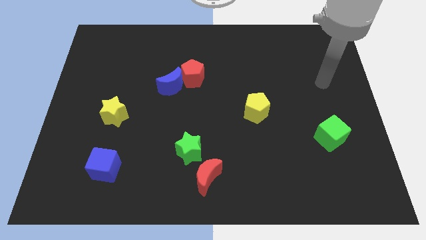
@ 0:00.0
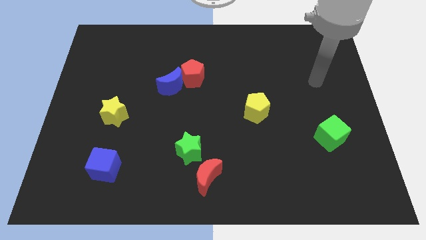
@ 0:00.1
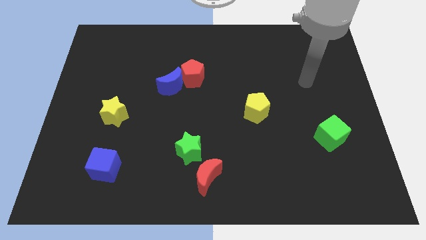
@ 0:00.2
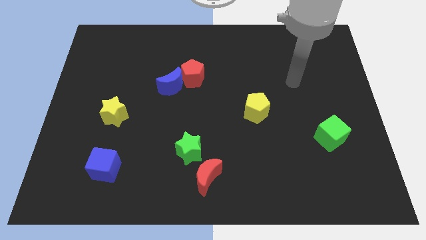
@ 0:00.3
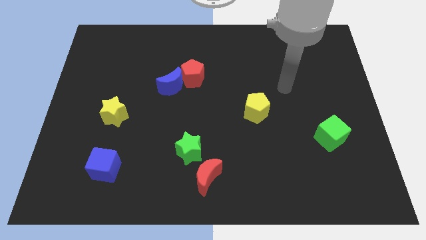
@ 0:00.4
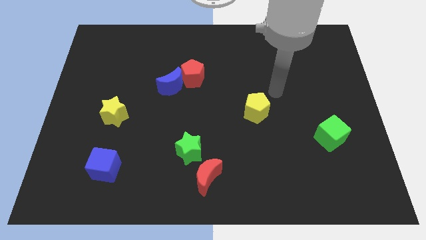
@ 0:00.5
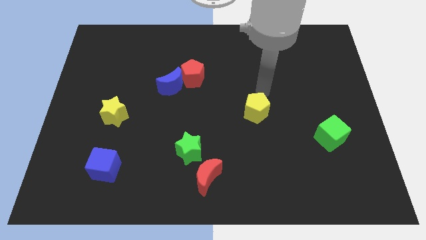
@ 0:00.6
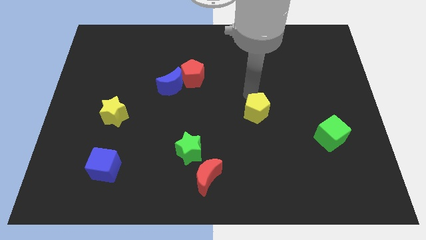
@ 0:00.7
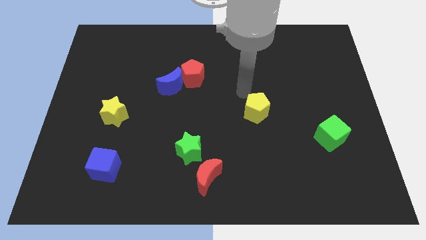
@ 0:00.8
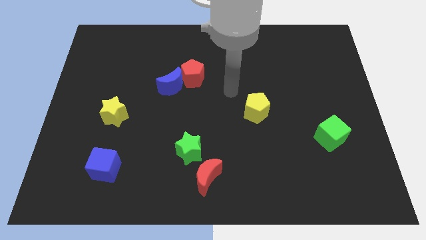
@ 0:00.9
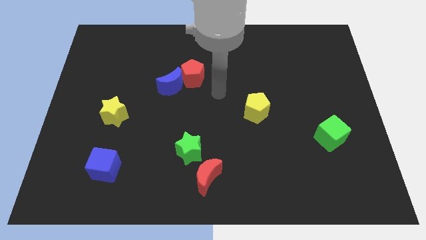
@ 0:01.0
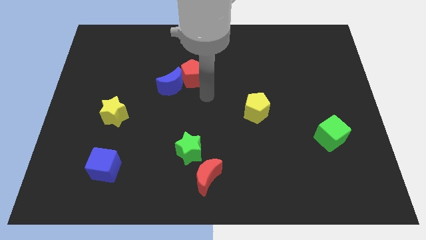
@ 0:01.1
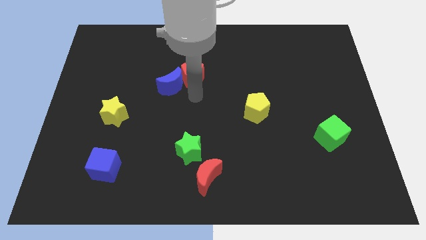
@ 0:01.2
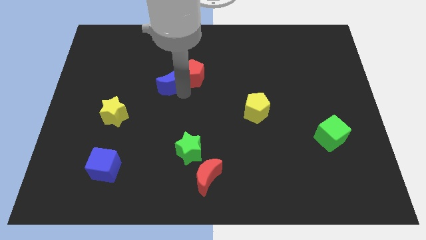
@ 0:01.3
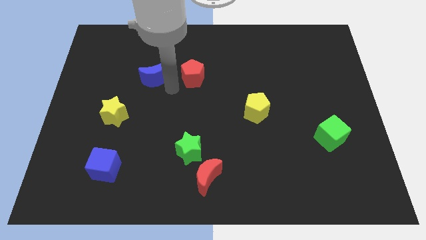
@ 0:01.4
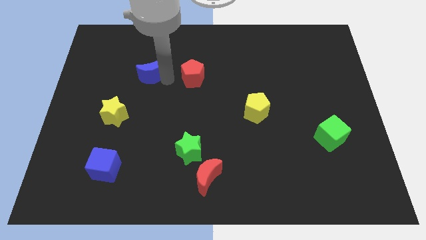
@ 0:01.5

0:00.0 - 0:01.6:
move the red pentagon away from the blue moon

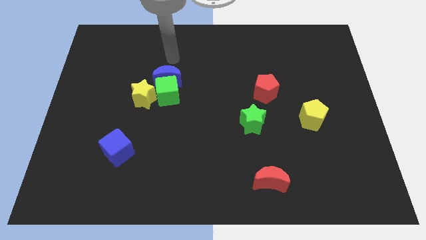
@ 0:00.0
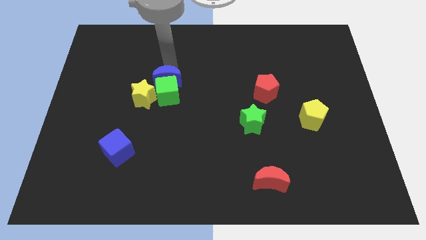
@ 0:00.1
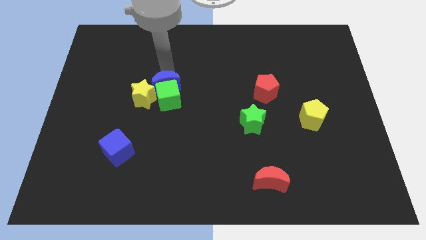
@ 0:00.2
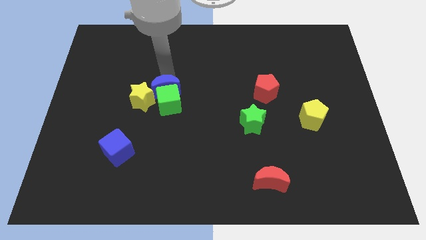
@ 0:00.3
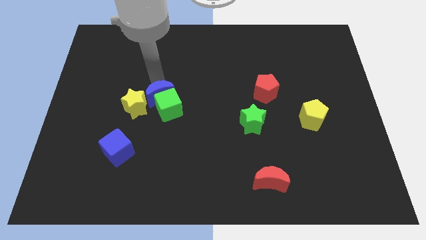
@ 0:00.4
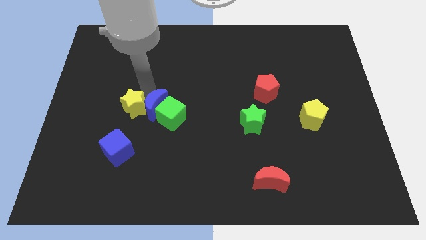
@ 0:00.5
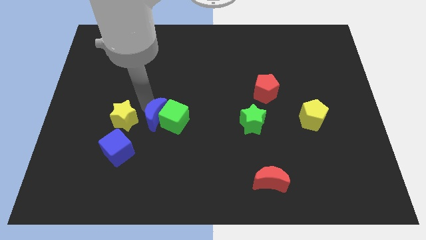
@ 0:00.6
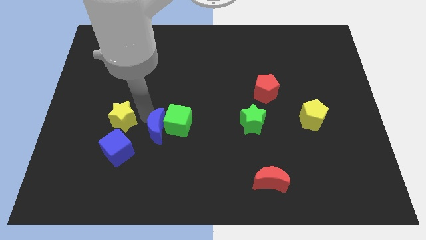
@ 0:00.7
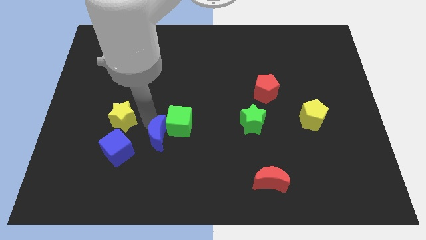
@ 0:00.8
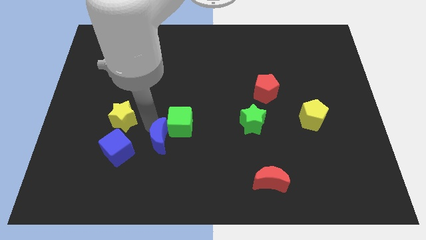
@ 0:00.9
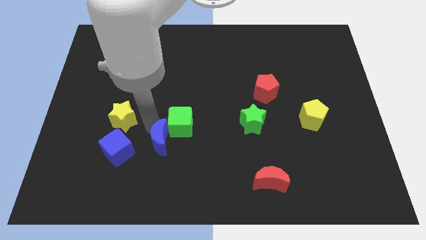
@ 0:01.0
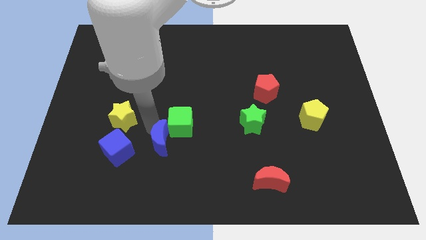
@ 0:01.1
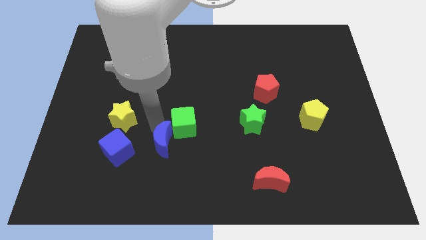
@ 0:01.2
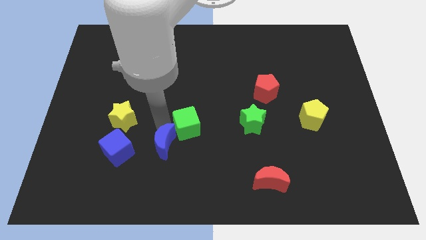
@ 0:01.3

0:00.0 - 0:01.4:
move the green cube away from the blue moon and yellow star

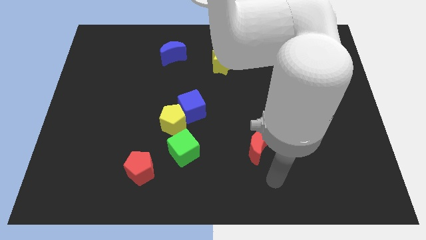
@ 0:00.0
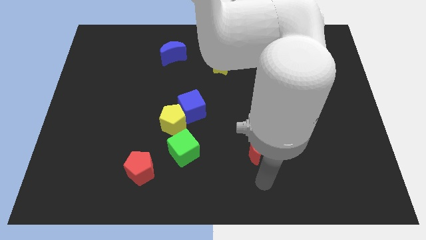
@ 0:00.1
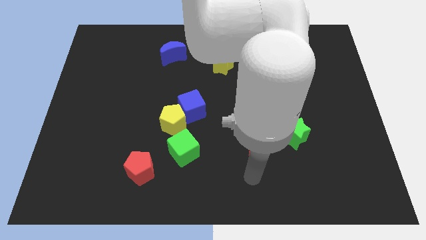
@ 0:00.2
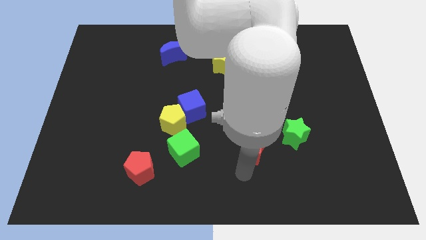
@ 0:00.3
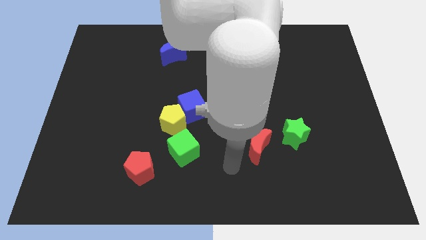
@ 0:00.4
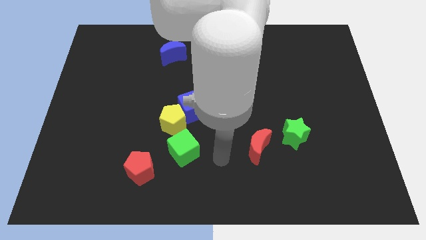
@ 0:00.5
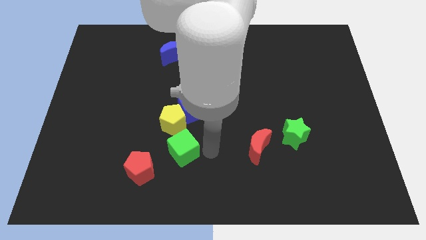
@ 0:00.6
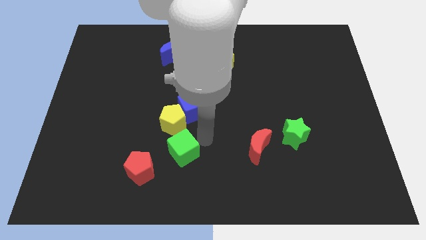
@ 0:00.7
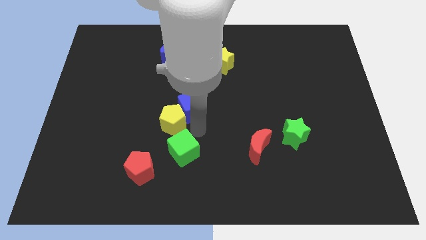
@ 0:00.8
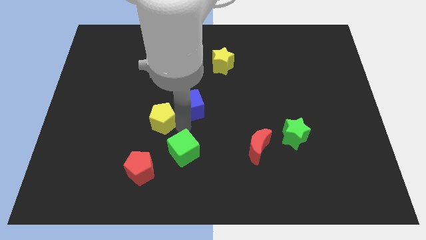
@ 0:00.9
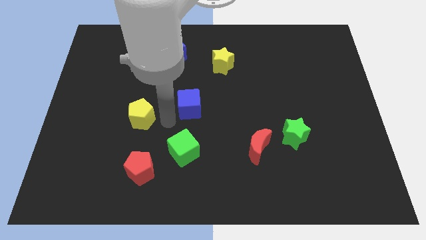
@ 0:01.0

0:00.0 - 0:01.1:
move the blue cube away from the yellow pentagon

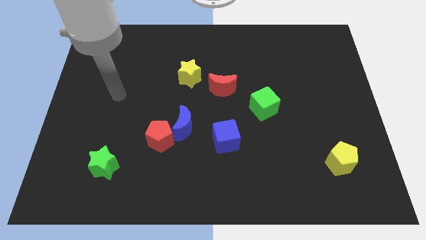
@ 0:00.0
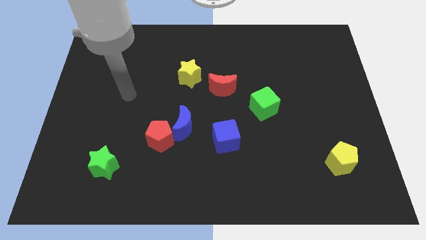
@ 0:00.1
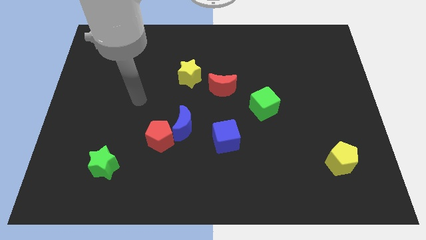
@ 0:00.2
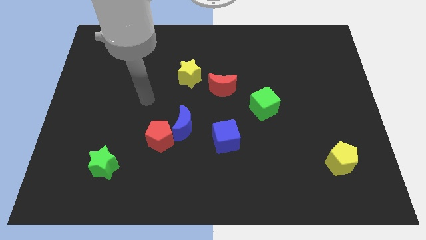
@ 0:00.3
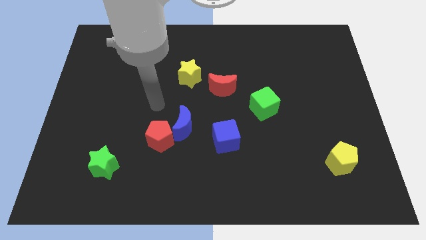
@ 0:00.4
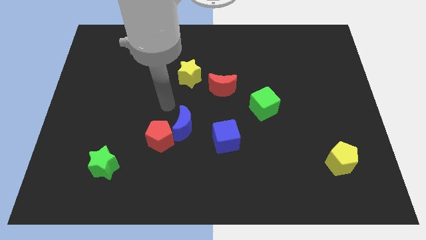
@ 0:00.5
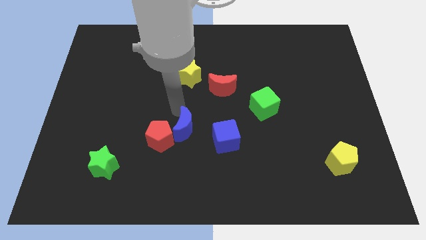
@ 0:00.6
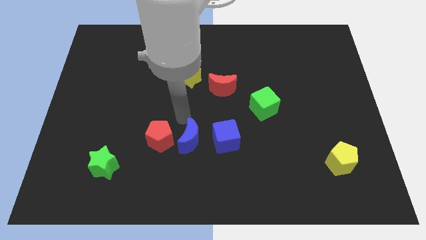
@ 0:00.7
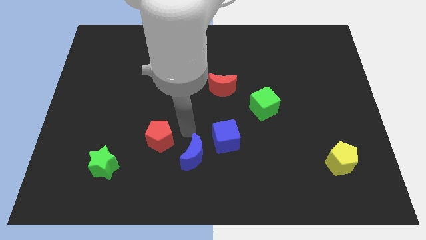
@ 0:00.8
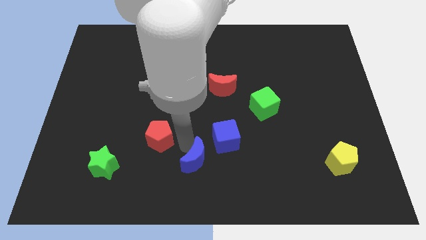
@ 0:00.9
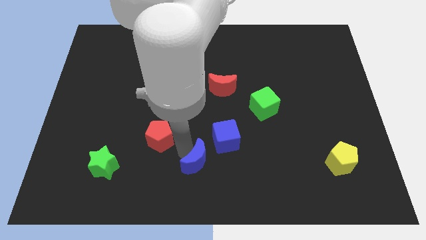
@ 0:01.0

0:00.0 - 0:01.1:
separate the red pentagon from the blue moon

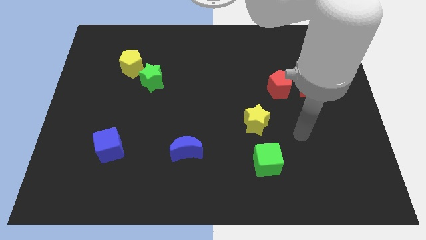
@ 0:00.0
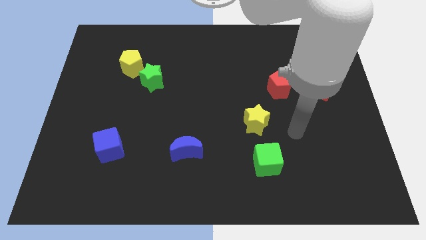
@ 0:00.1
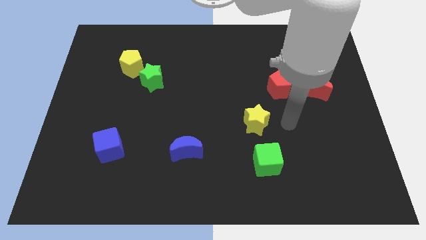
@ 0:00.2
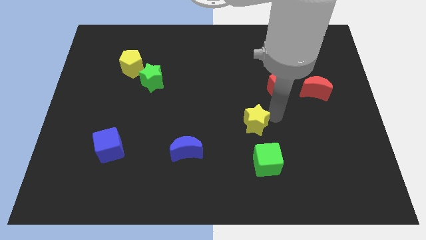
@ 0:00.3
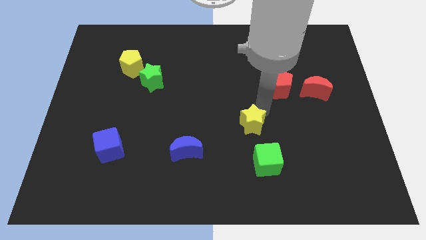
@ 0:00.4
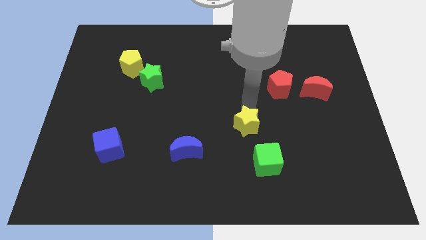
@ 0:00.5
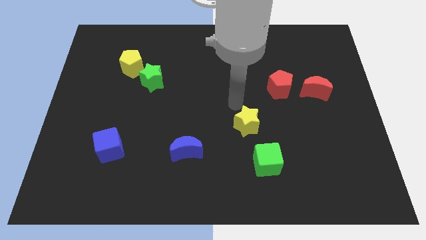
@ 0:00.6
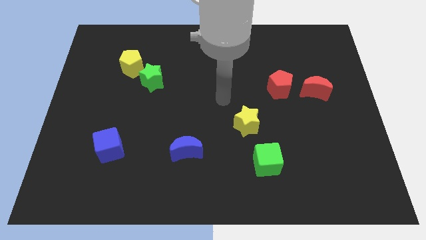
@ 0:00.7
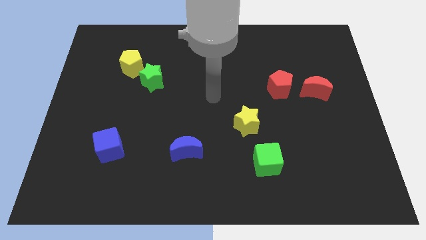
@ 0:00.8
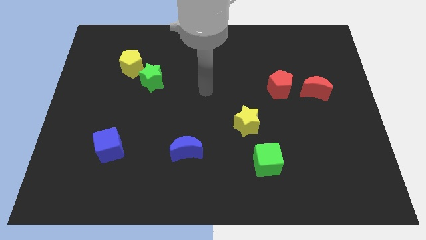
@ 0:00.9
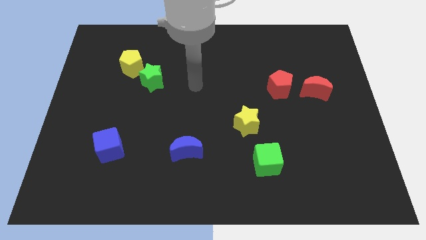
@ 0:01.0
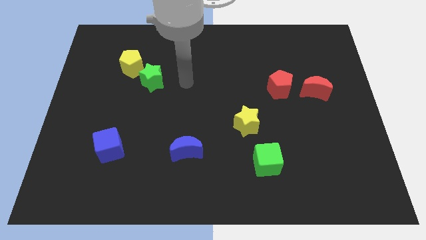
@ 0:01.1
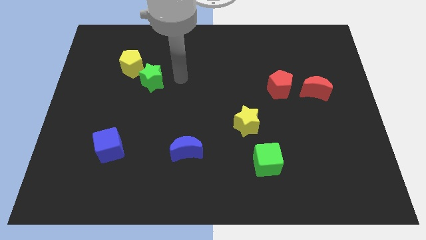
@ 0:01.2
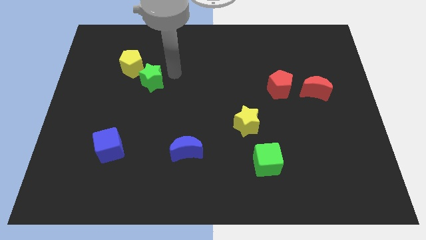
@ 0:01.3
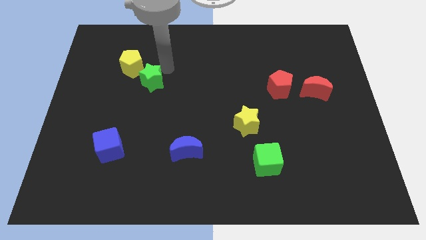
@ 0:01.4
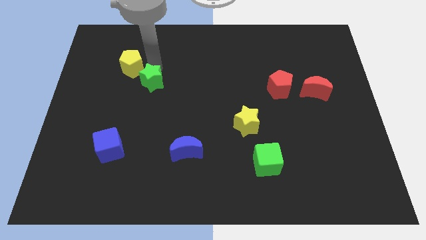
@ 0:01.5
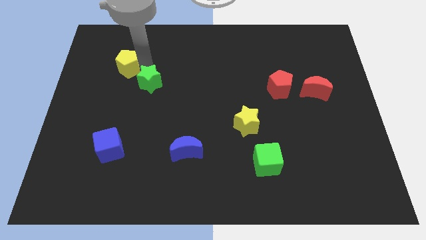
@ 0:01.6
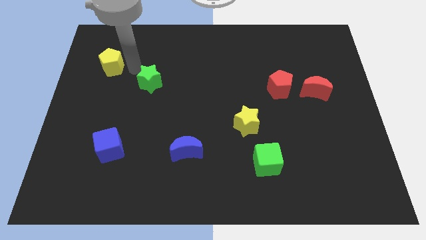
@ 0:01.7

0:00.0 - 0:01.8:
separate the green star from the yellow pentagon

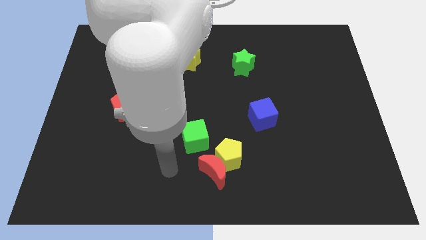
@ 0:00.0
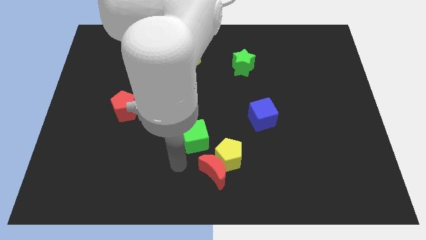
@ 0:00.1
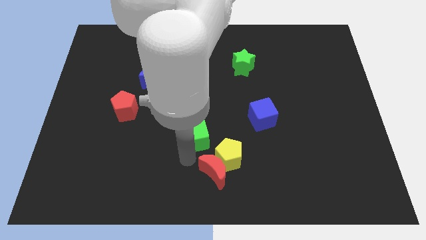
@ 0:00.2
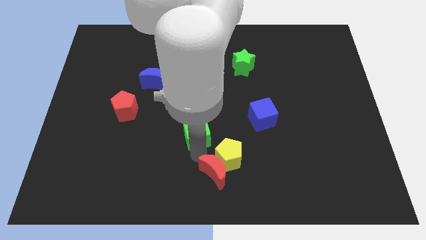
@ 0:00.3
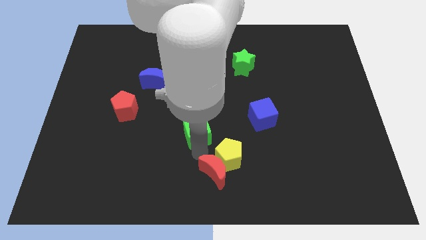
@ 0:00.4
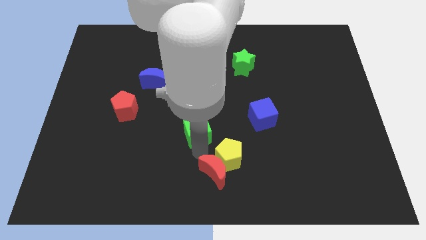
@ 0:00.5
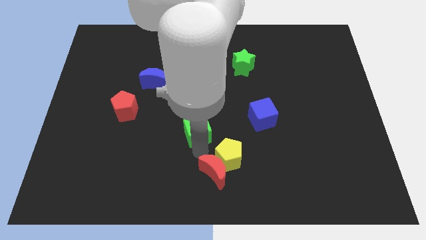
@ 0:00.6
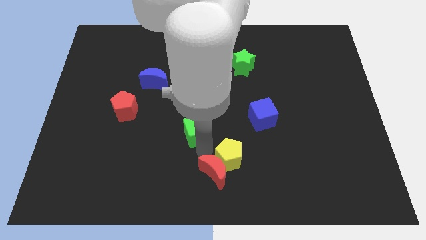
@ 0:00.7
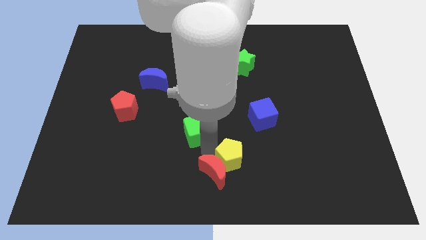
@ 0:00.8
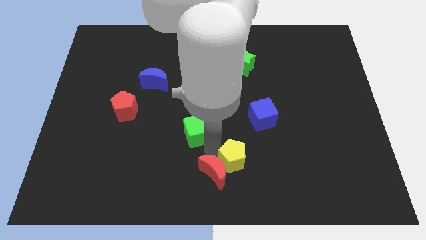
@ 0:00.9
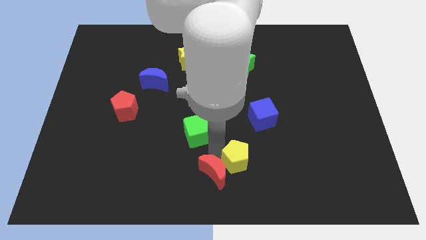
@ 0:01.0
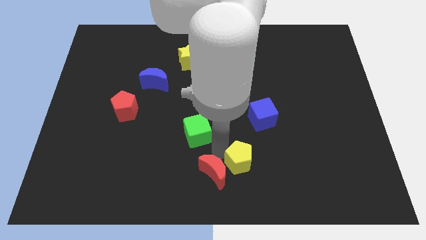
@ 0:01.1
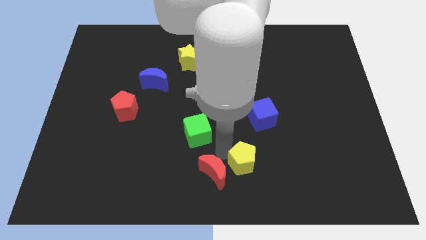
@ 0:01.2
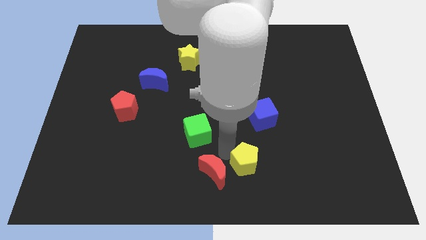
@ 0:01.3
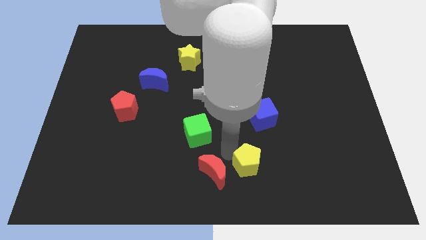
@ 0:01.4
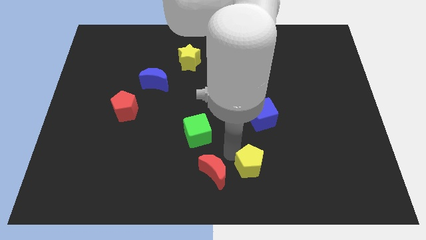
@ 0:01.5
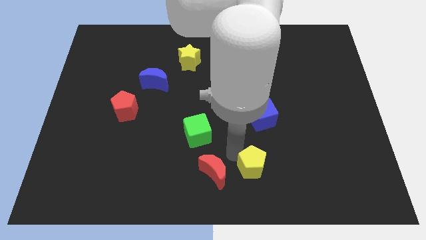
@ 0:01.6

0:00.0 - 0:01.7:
separate the yellow pentagon from the red moon and green cube

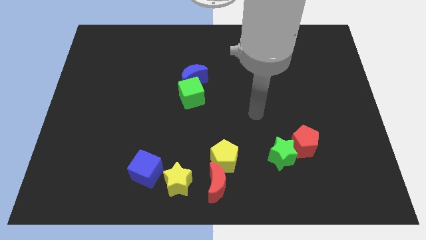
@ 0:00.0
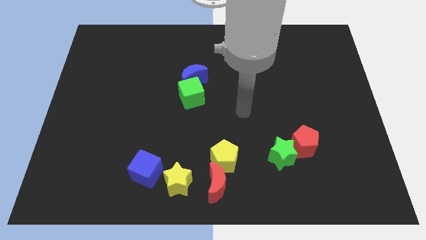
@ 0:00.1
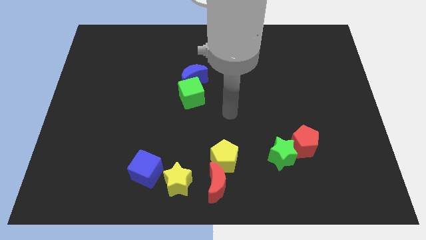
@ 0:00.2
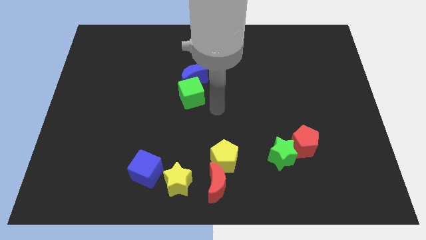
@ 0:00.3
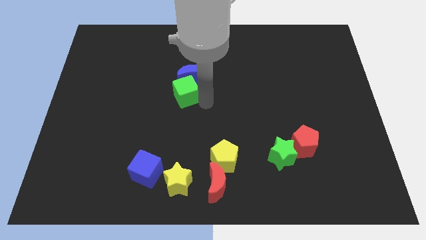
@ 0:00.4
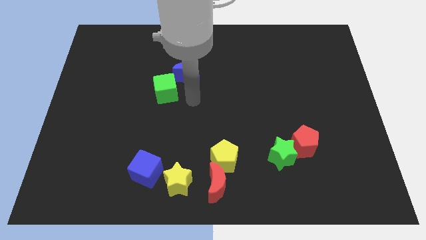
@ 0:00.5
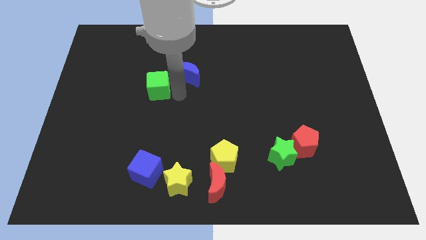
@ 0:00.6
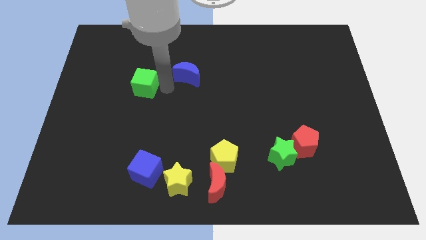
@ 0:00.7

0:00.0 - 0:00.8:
separate the blue moon from the green cube
